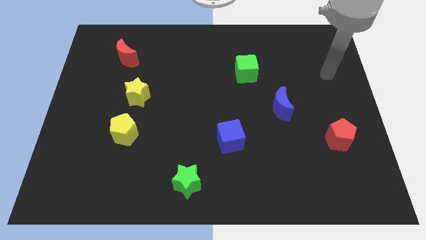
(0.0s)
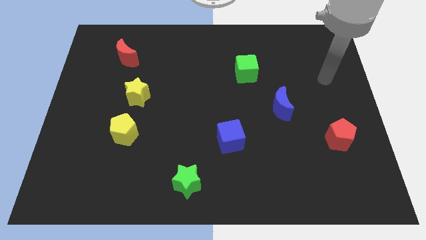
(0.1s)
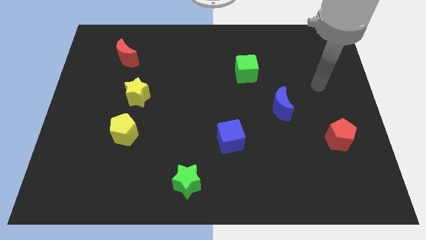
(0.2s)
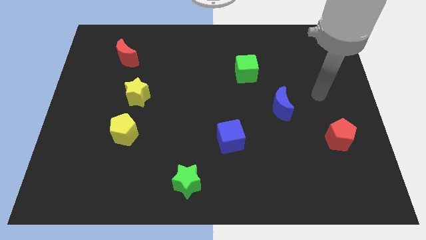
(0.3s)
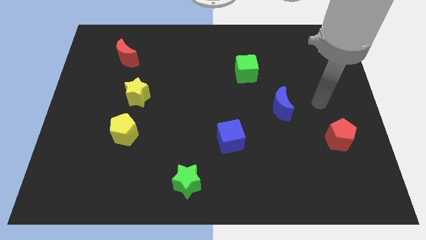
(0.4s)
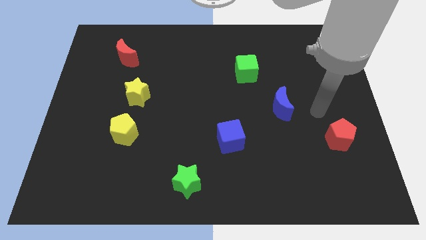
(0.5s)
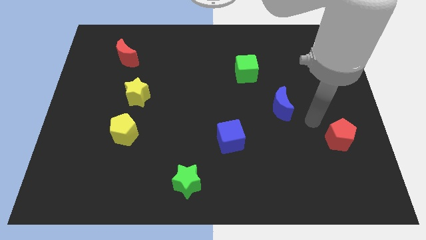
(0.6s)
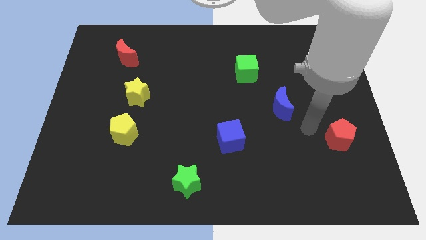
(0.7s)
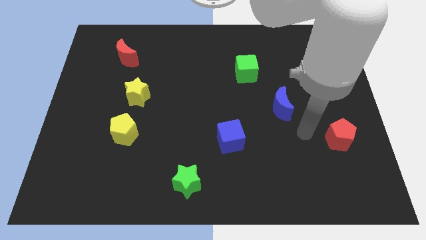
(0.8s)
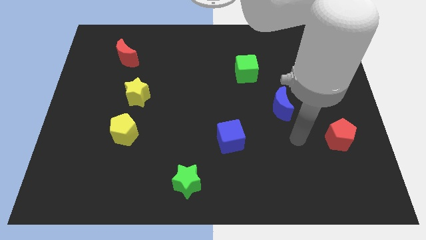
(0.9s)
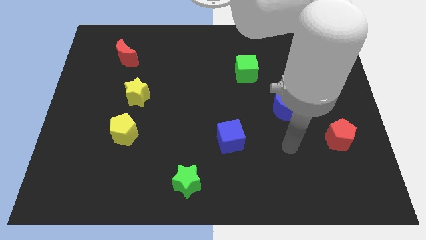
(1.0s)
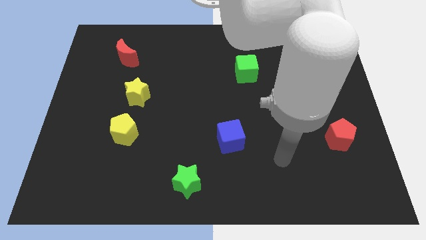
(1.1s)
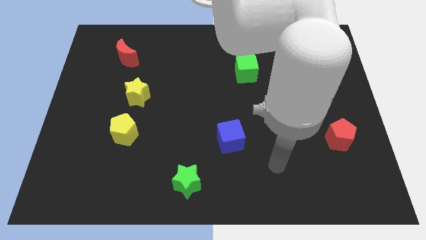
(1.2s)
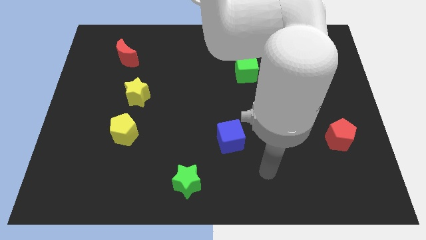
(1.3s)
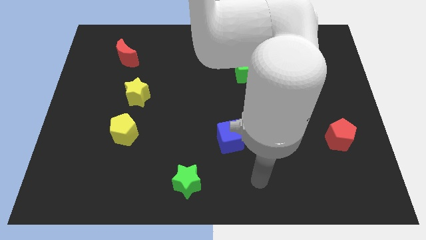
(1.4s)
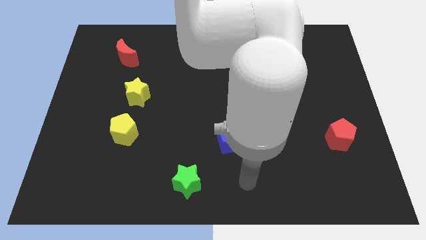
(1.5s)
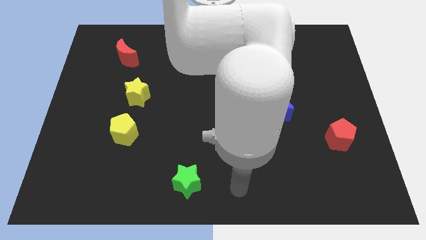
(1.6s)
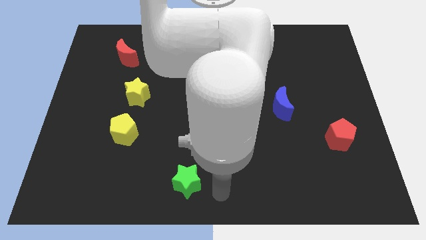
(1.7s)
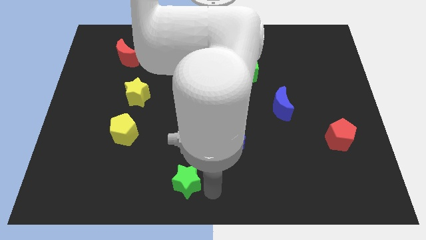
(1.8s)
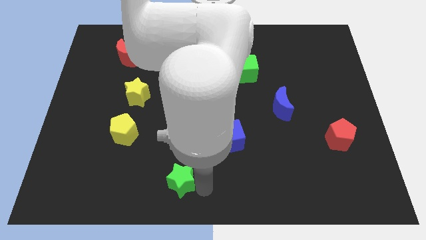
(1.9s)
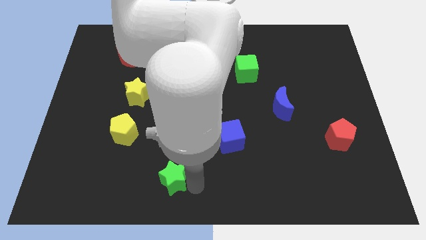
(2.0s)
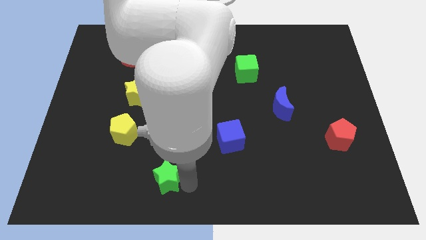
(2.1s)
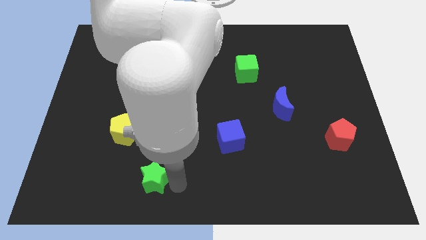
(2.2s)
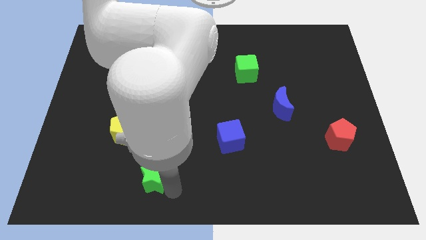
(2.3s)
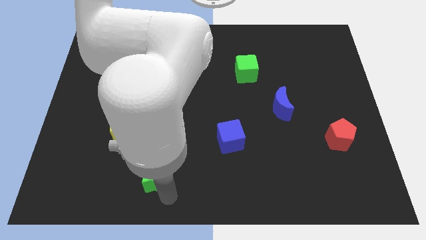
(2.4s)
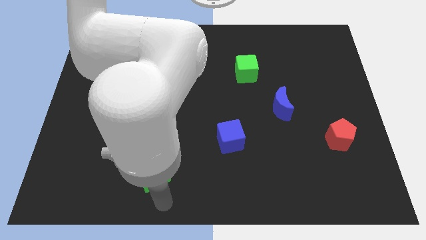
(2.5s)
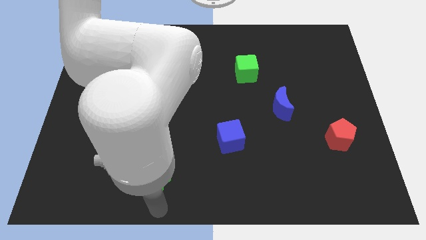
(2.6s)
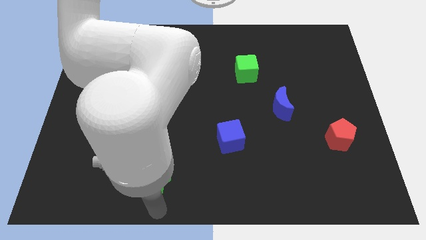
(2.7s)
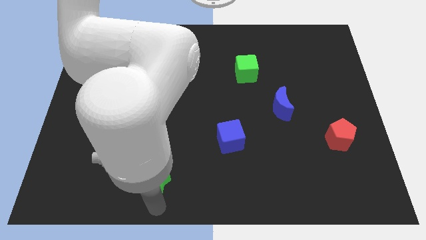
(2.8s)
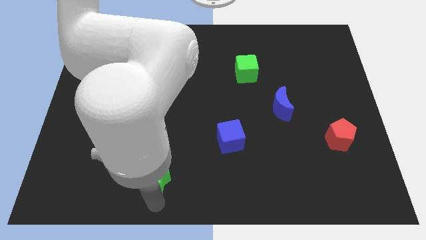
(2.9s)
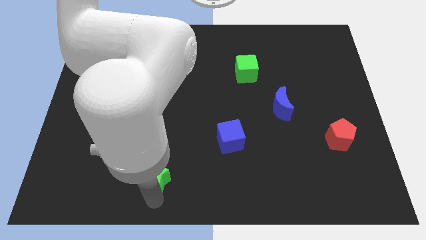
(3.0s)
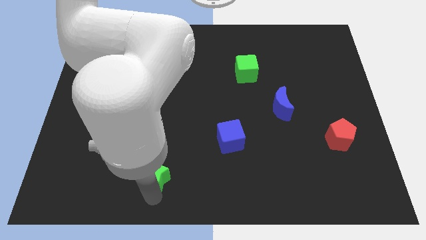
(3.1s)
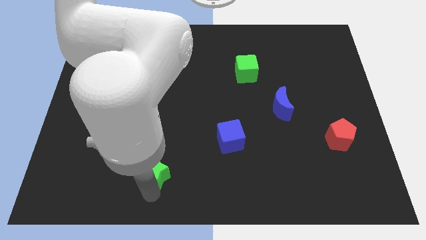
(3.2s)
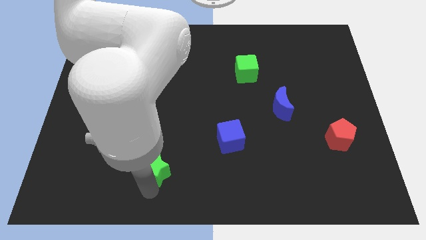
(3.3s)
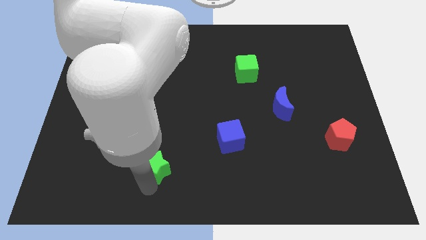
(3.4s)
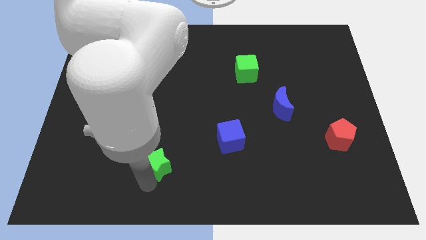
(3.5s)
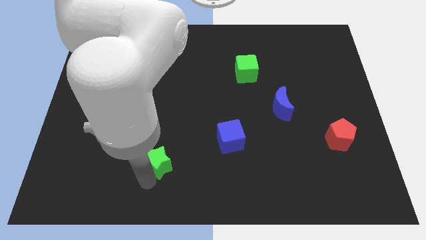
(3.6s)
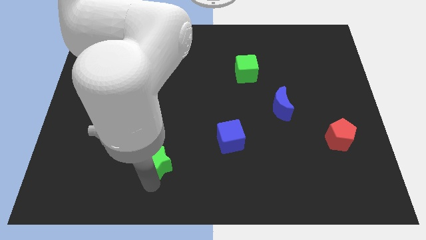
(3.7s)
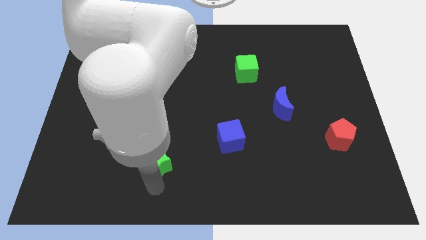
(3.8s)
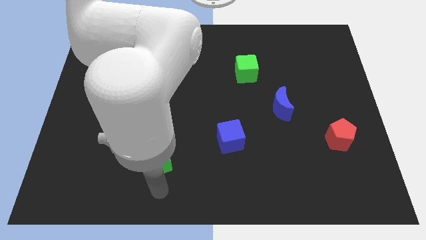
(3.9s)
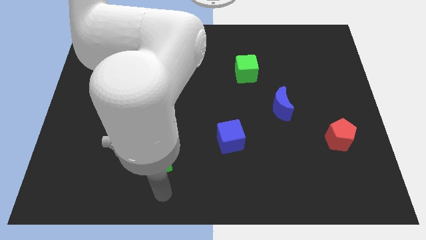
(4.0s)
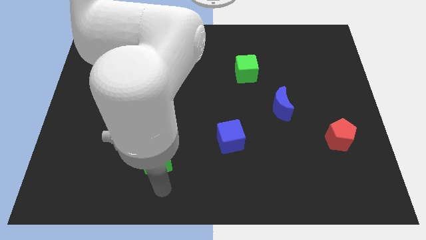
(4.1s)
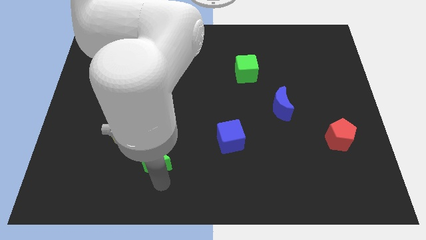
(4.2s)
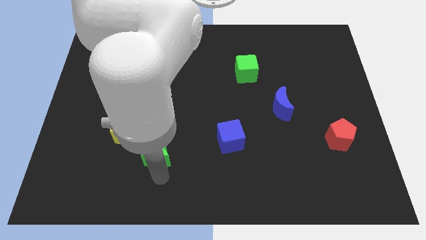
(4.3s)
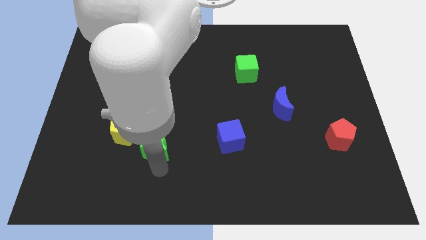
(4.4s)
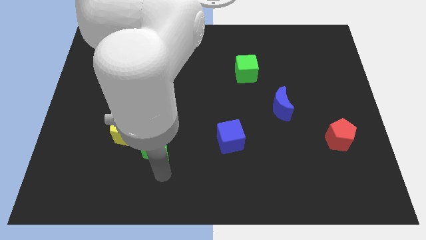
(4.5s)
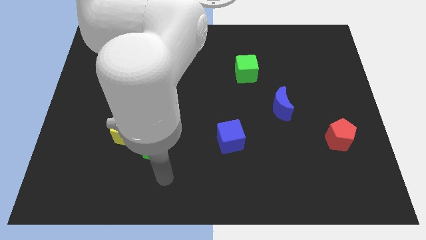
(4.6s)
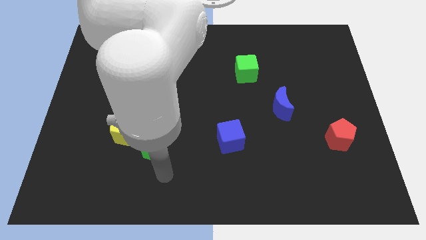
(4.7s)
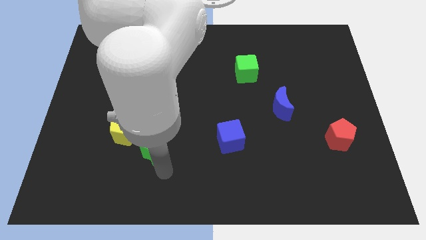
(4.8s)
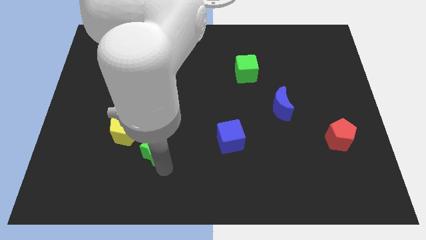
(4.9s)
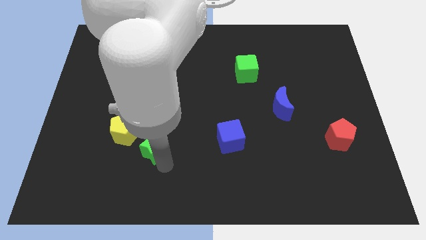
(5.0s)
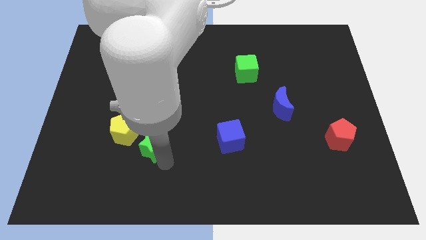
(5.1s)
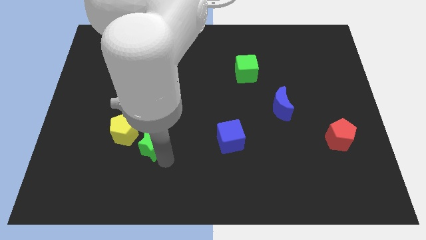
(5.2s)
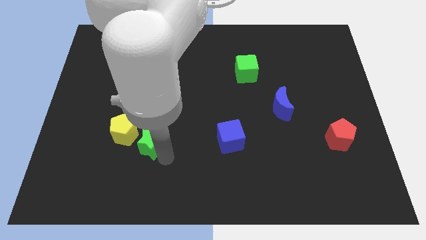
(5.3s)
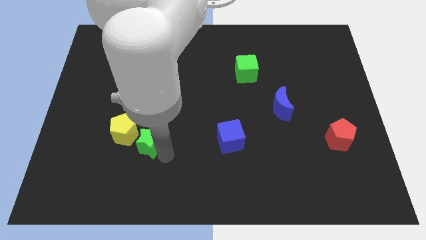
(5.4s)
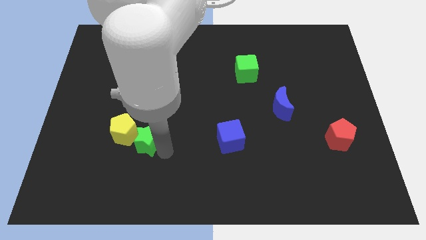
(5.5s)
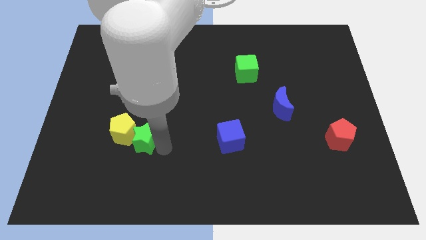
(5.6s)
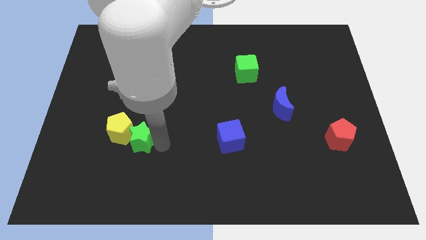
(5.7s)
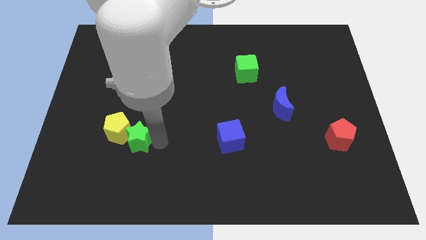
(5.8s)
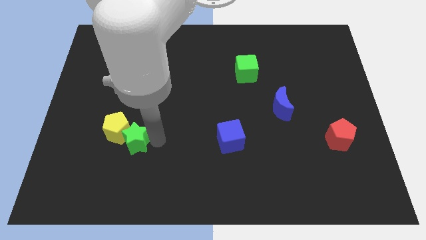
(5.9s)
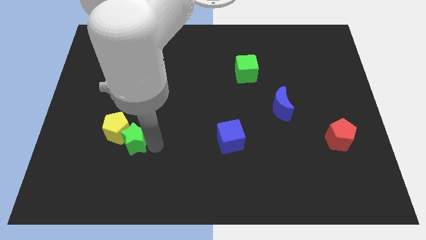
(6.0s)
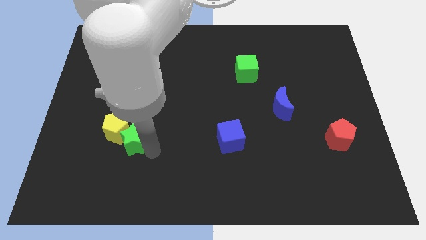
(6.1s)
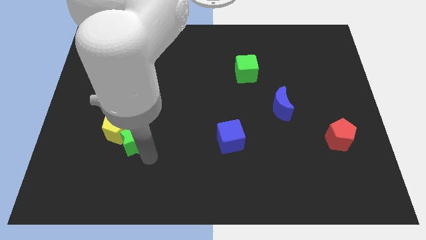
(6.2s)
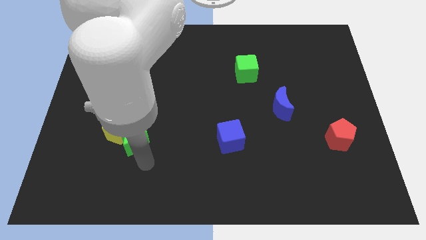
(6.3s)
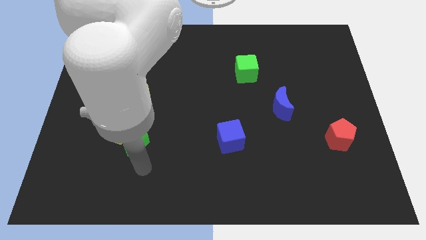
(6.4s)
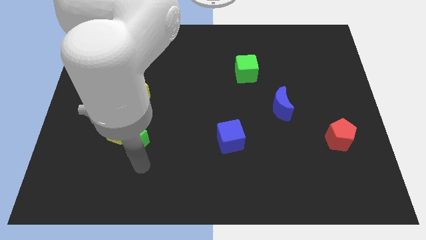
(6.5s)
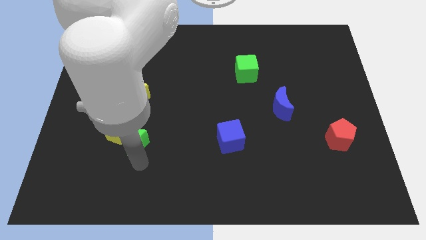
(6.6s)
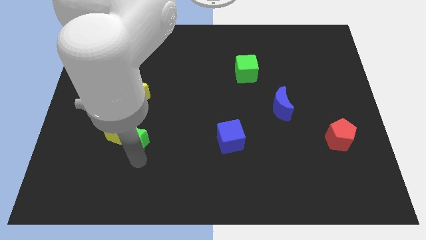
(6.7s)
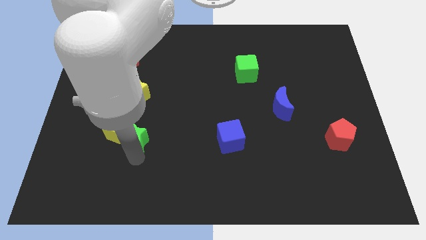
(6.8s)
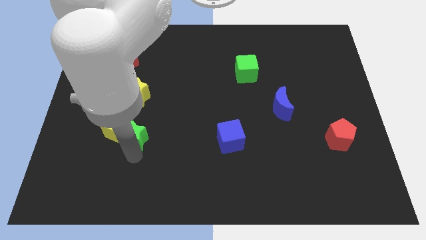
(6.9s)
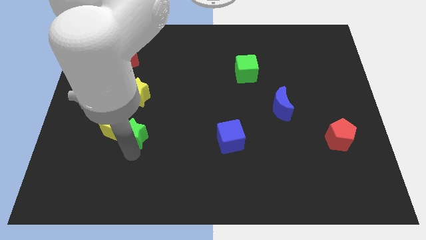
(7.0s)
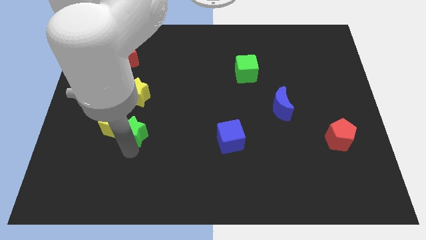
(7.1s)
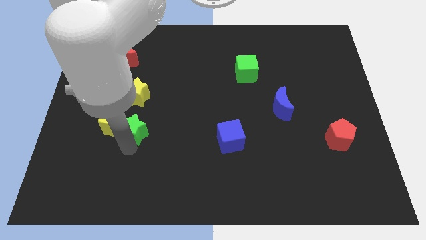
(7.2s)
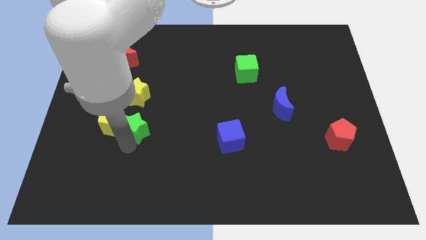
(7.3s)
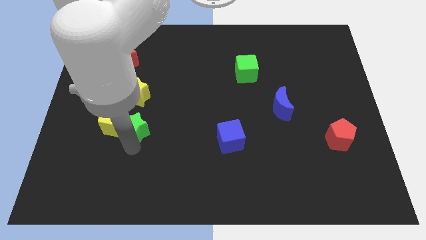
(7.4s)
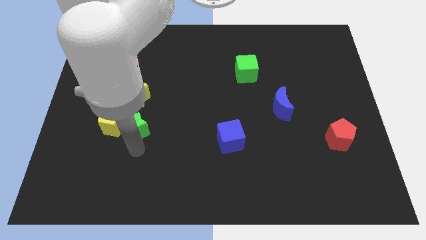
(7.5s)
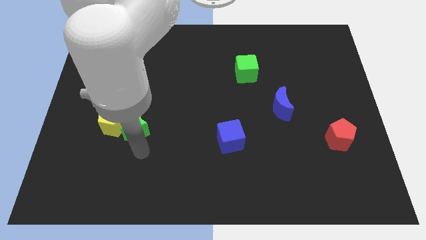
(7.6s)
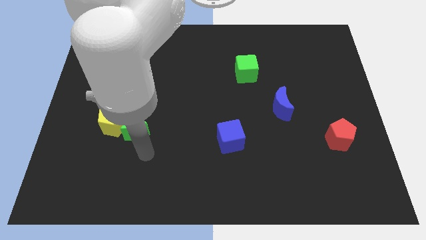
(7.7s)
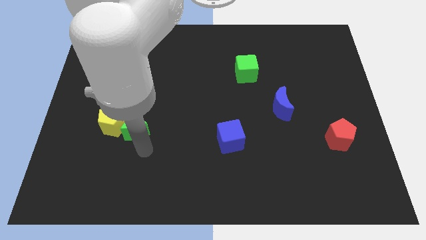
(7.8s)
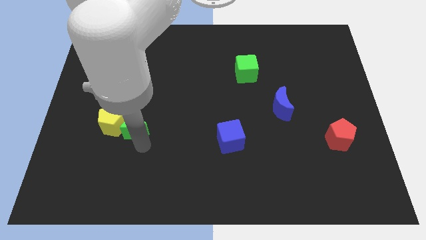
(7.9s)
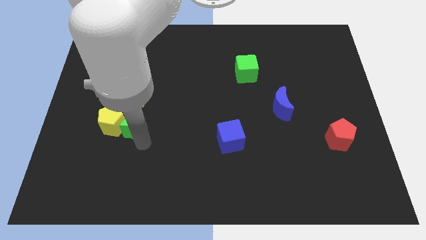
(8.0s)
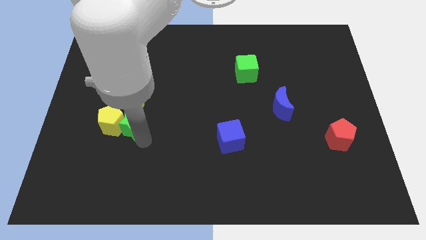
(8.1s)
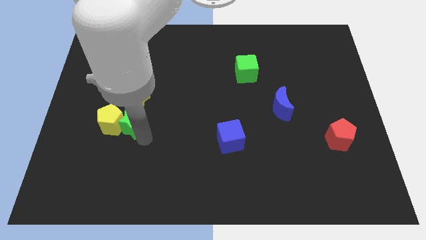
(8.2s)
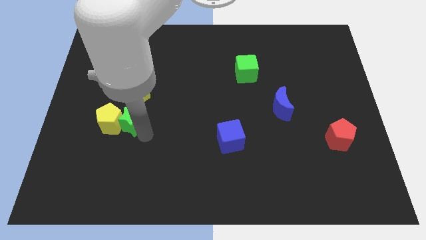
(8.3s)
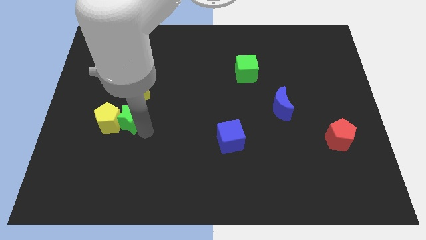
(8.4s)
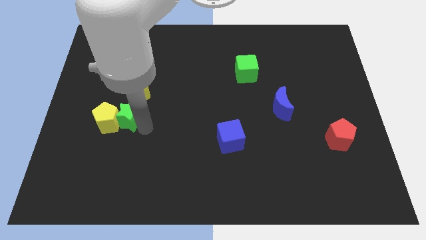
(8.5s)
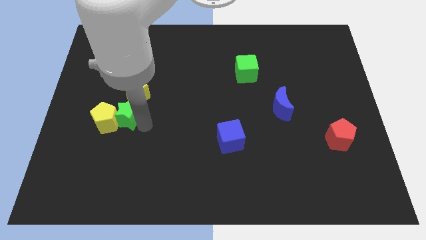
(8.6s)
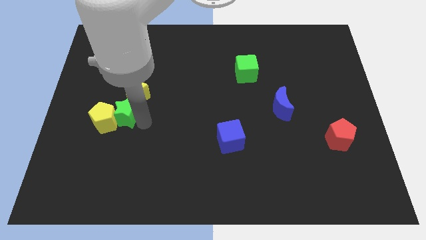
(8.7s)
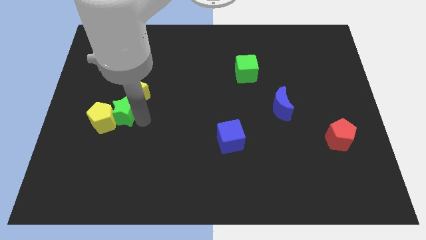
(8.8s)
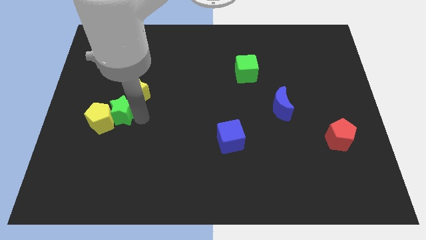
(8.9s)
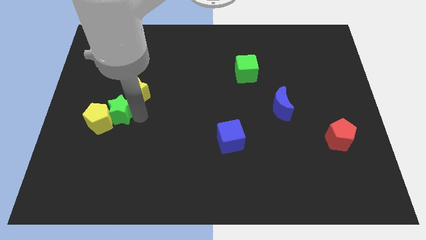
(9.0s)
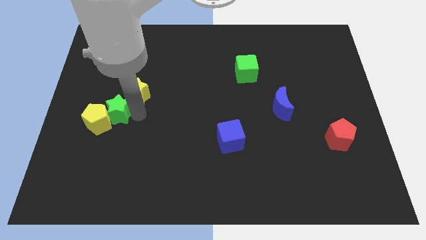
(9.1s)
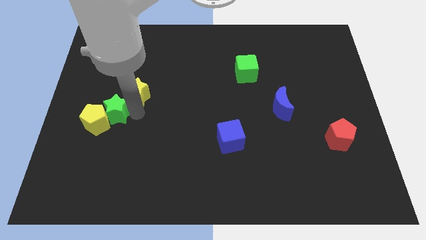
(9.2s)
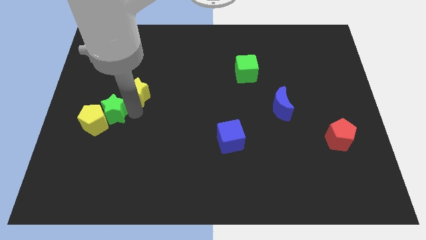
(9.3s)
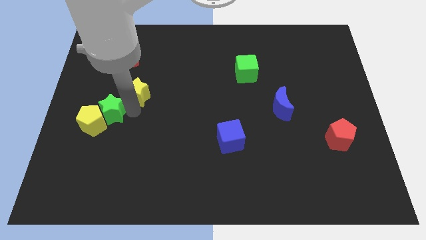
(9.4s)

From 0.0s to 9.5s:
slide the green star to the left side of the yellow star
